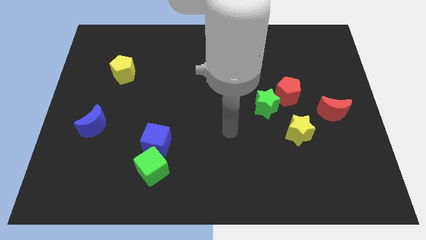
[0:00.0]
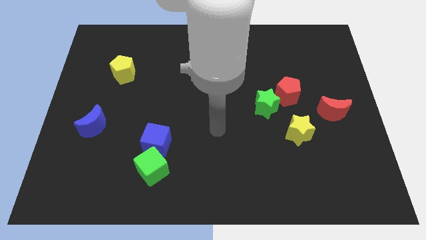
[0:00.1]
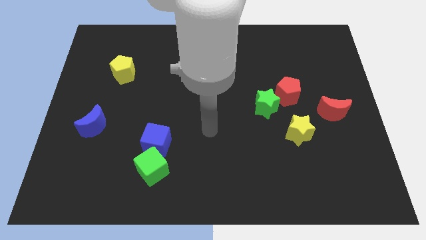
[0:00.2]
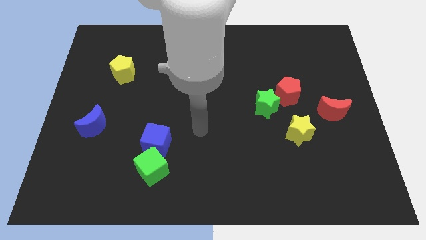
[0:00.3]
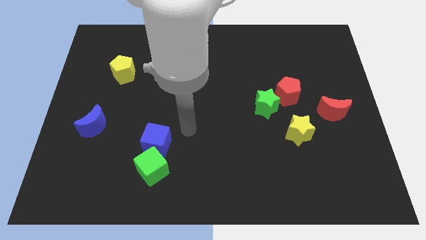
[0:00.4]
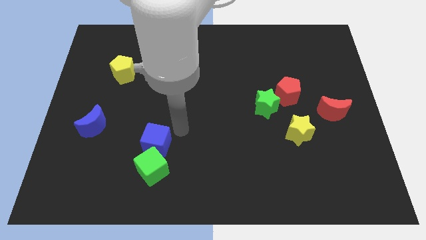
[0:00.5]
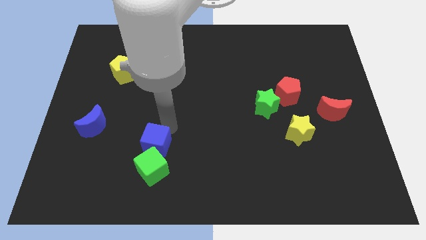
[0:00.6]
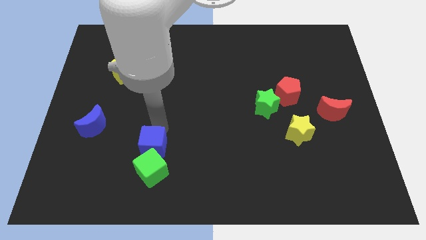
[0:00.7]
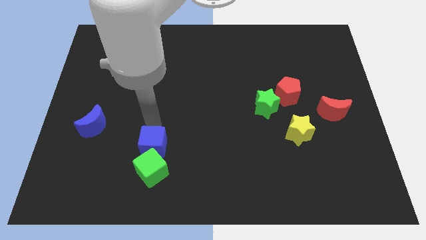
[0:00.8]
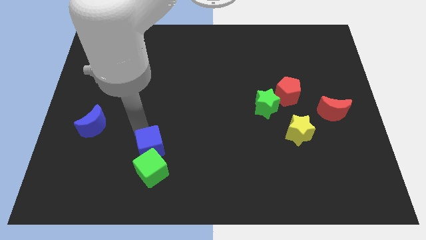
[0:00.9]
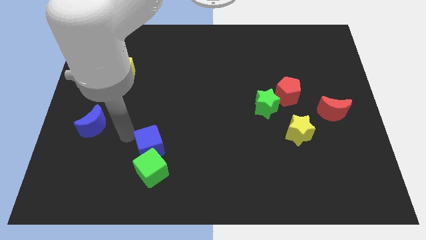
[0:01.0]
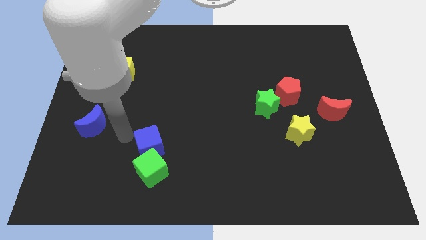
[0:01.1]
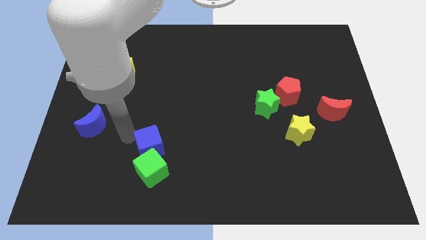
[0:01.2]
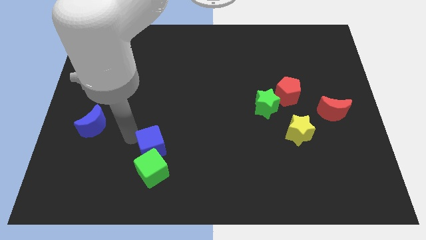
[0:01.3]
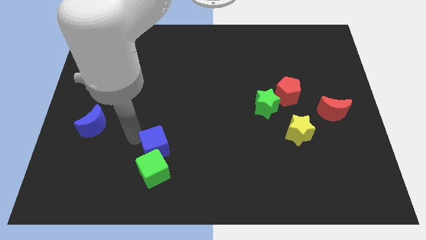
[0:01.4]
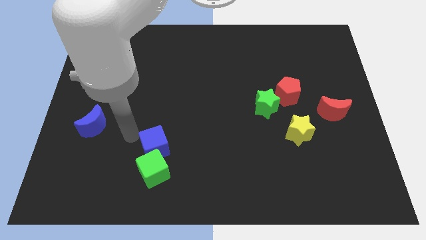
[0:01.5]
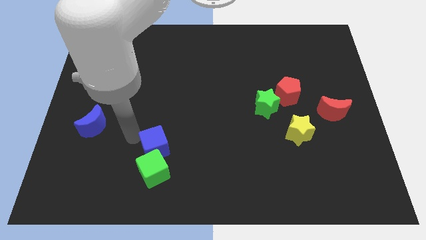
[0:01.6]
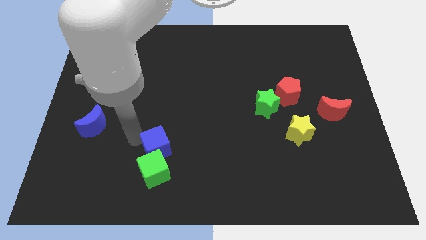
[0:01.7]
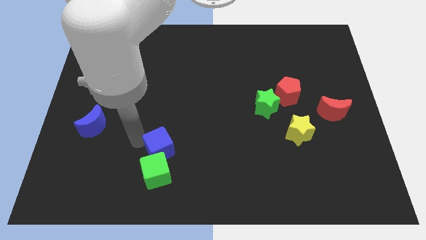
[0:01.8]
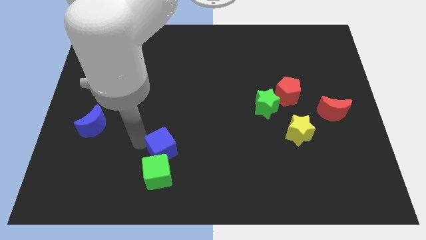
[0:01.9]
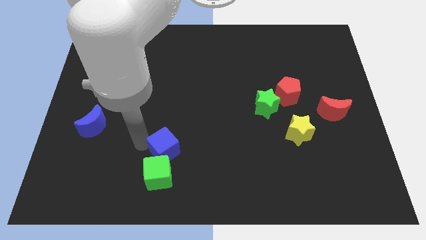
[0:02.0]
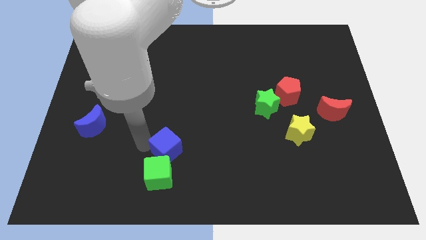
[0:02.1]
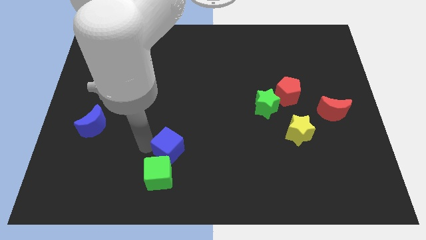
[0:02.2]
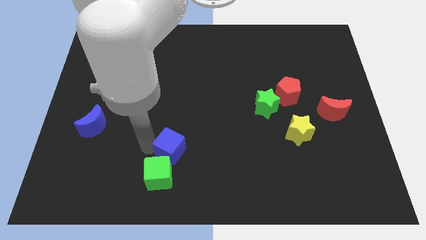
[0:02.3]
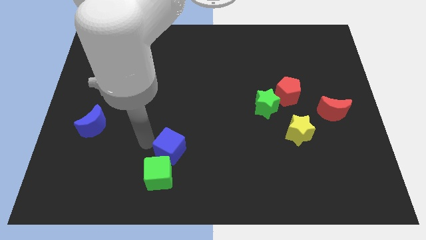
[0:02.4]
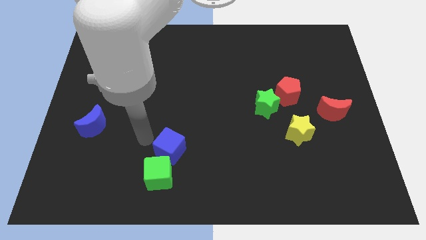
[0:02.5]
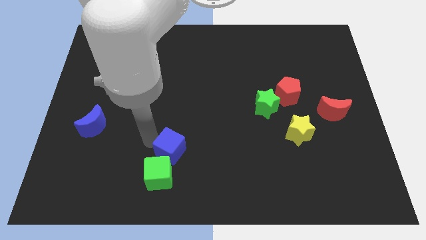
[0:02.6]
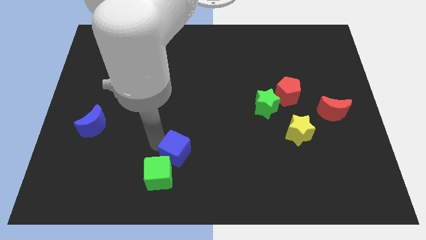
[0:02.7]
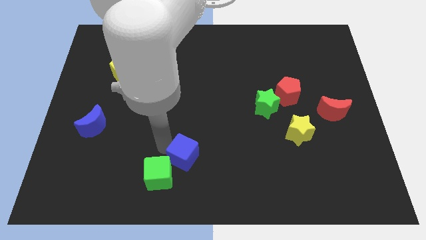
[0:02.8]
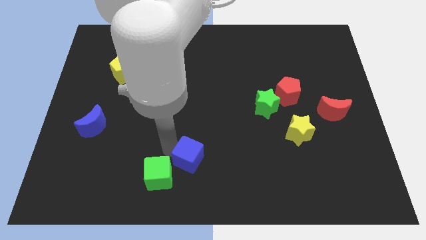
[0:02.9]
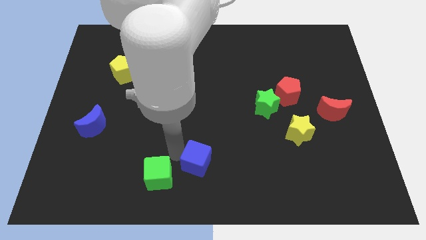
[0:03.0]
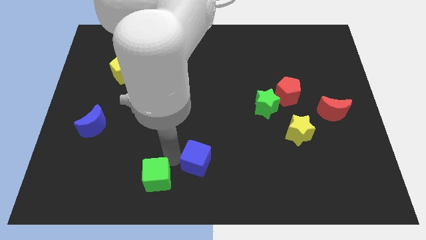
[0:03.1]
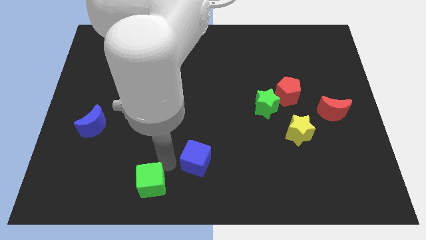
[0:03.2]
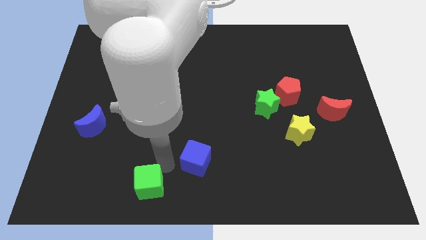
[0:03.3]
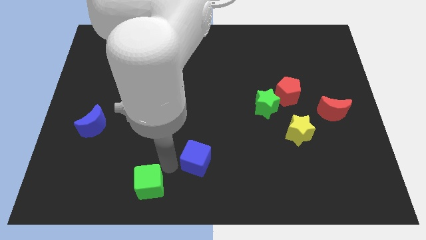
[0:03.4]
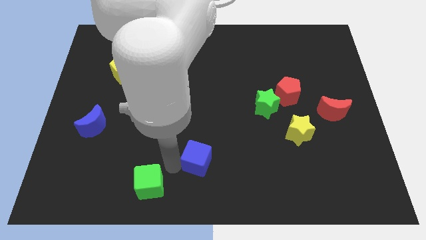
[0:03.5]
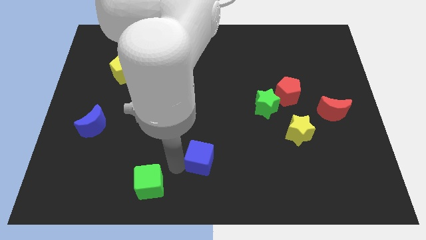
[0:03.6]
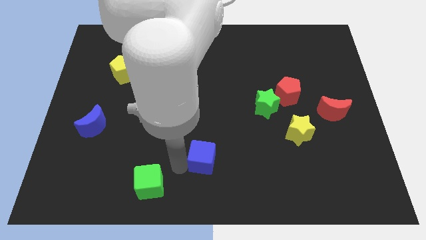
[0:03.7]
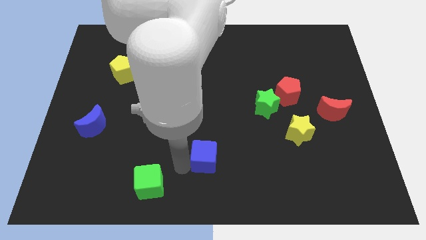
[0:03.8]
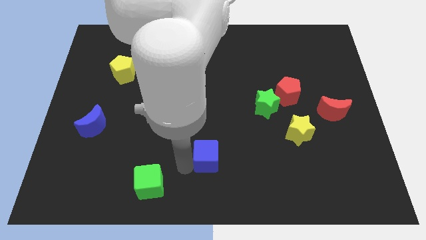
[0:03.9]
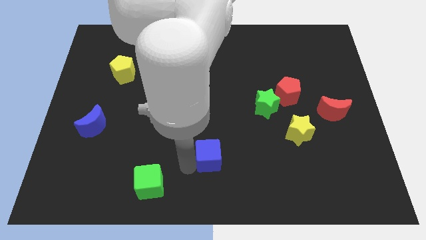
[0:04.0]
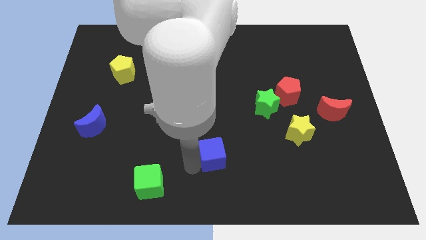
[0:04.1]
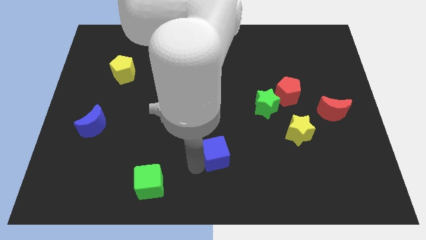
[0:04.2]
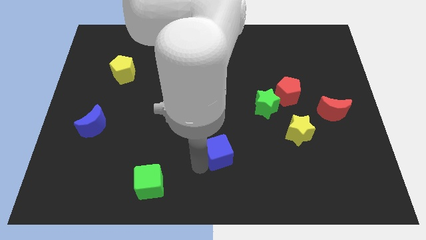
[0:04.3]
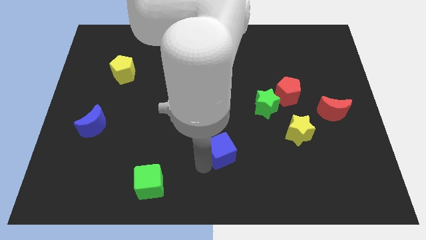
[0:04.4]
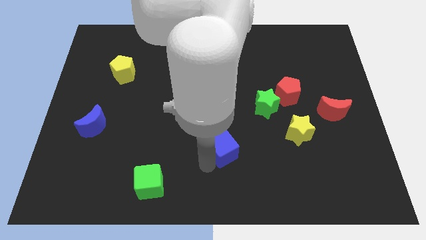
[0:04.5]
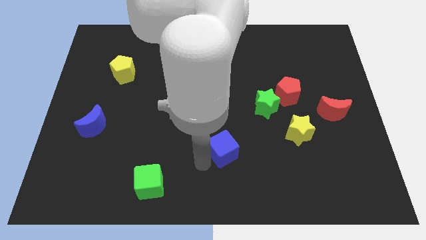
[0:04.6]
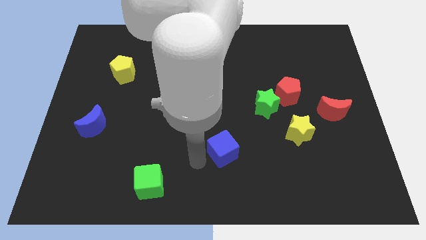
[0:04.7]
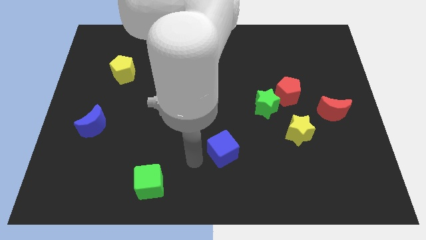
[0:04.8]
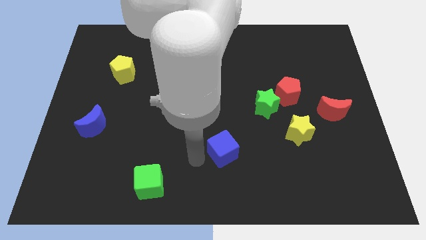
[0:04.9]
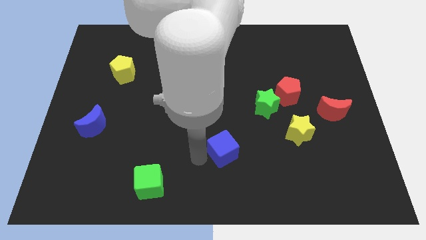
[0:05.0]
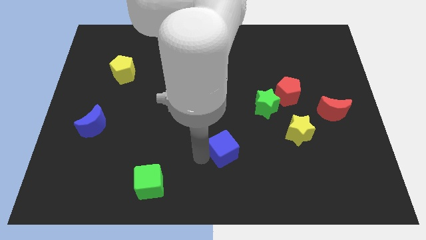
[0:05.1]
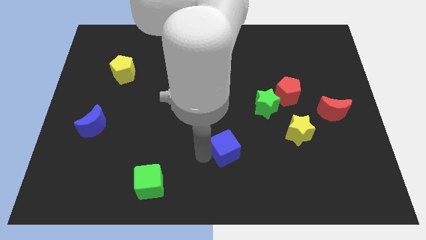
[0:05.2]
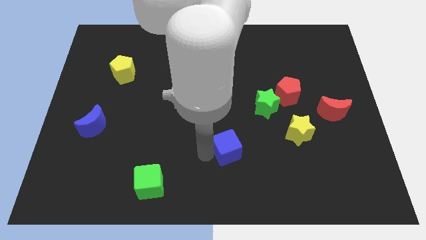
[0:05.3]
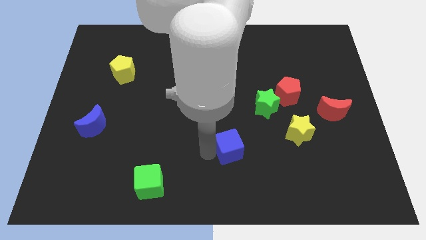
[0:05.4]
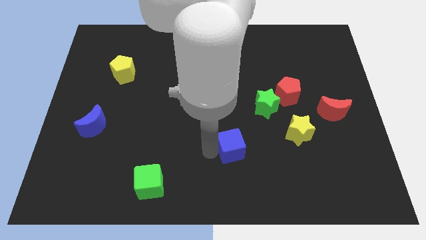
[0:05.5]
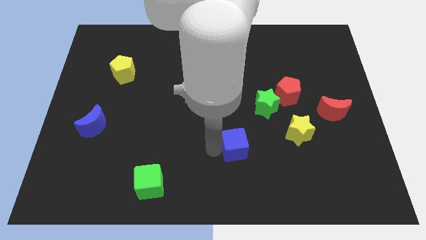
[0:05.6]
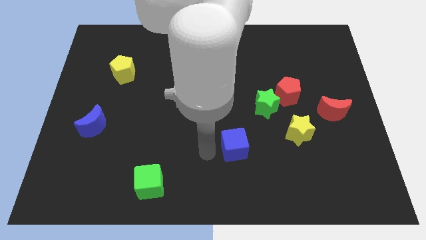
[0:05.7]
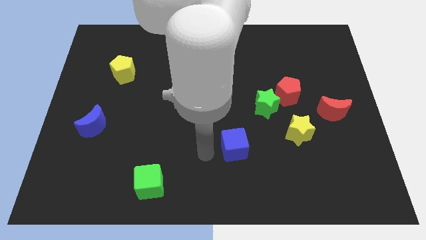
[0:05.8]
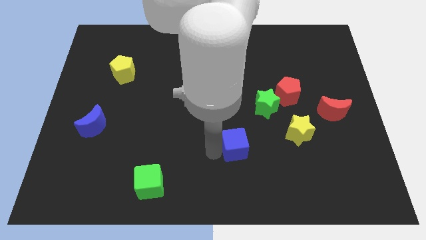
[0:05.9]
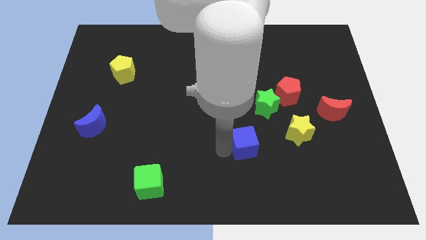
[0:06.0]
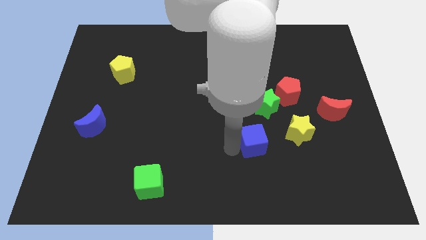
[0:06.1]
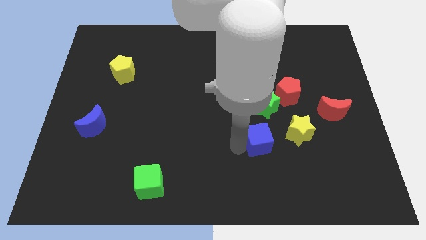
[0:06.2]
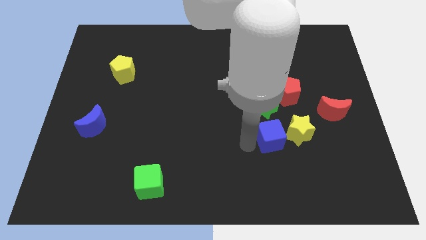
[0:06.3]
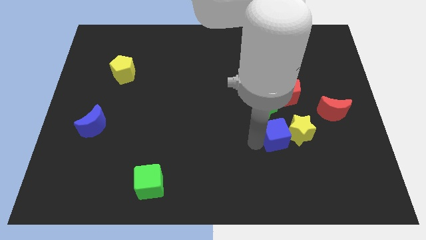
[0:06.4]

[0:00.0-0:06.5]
push the blue cube towards the yellow star
